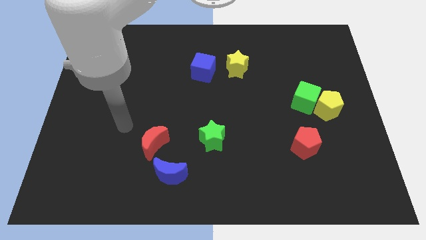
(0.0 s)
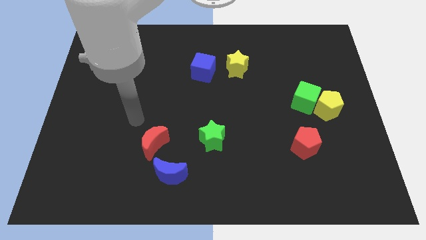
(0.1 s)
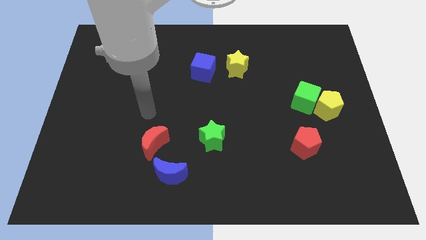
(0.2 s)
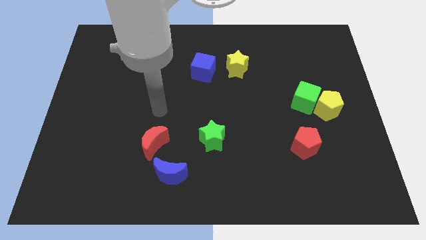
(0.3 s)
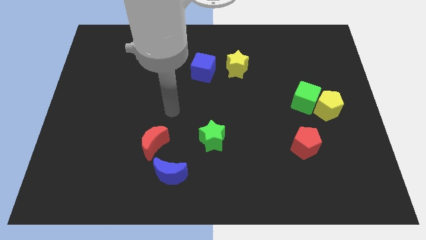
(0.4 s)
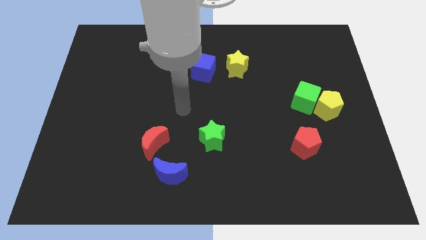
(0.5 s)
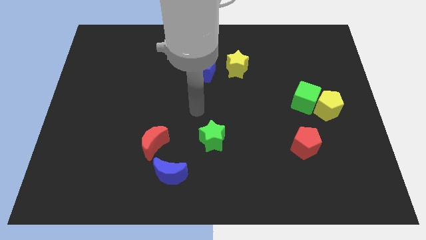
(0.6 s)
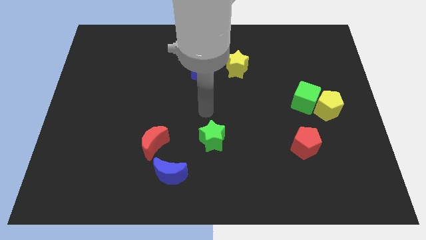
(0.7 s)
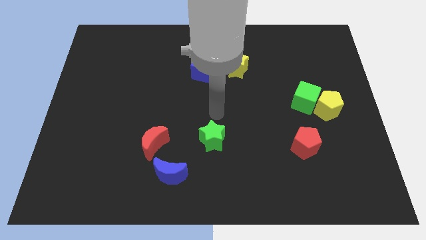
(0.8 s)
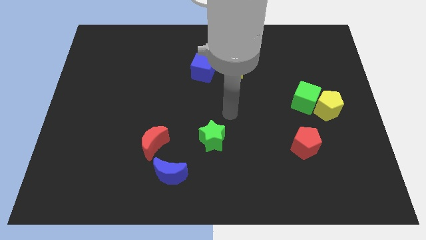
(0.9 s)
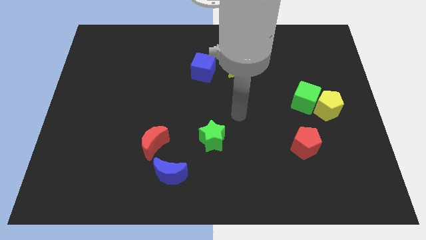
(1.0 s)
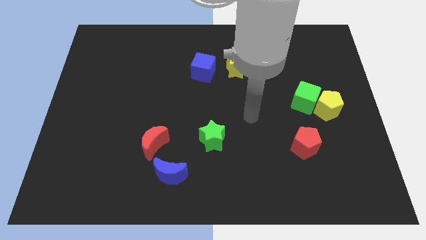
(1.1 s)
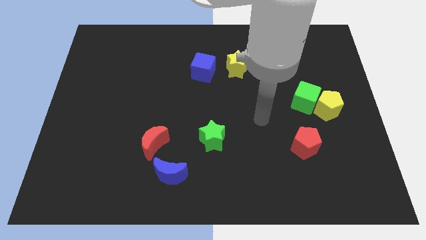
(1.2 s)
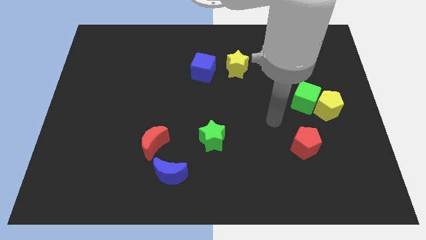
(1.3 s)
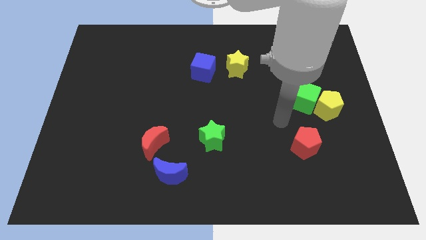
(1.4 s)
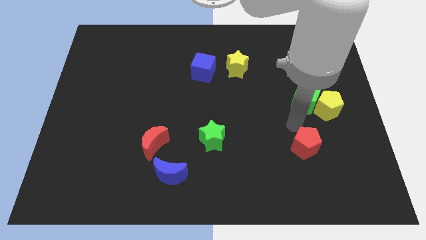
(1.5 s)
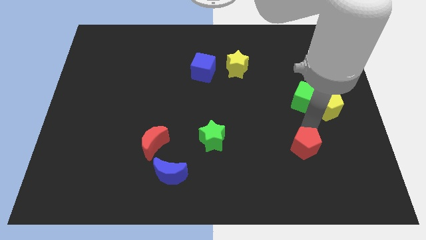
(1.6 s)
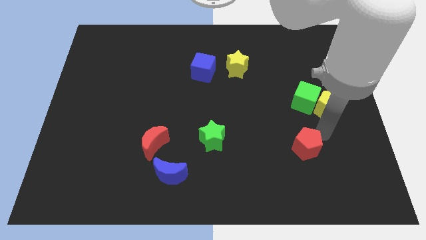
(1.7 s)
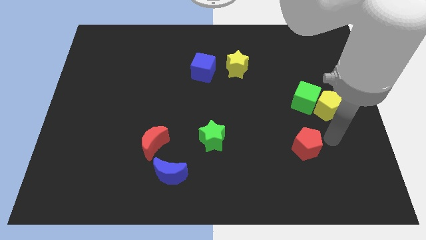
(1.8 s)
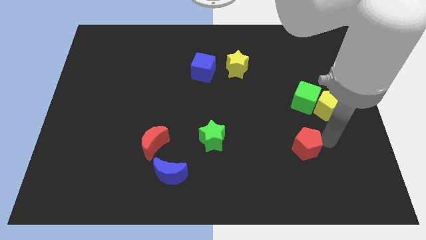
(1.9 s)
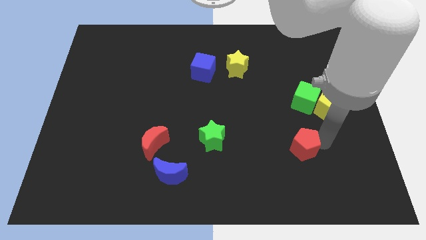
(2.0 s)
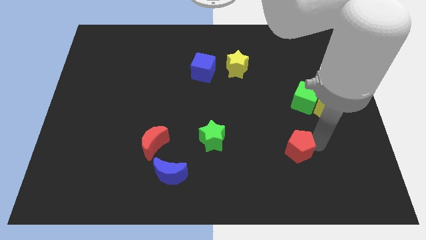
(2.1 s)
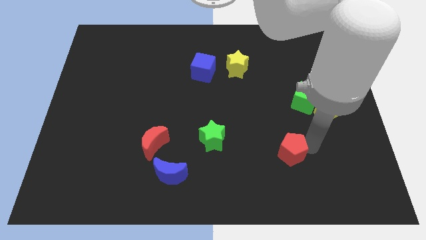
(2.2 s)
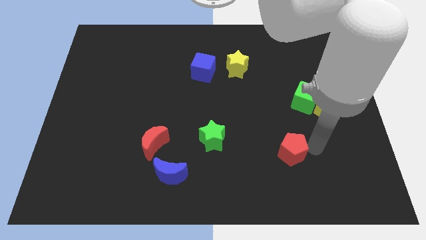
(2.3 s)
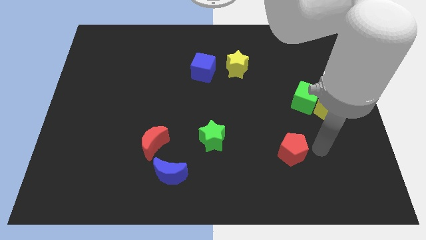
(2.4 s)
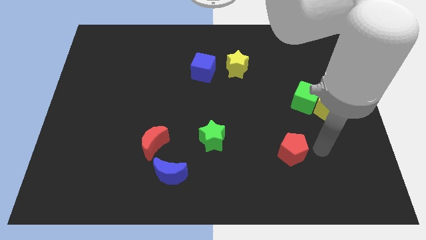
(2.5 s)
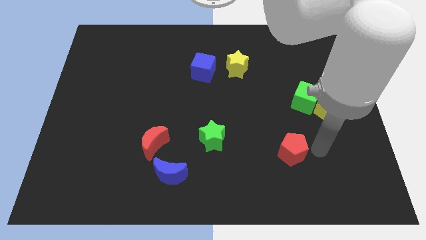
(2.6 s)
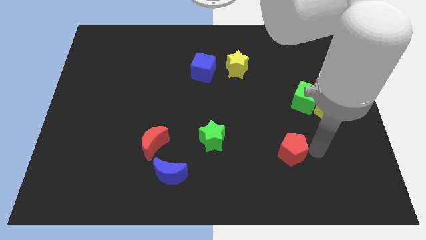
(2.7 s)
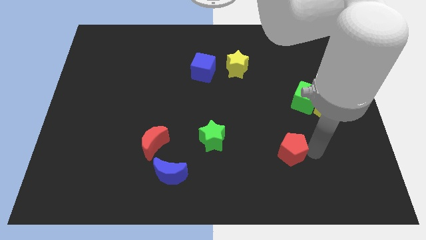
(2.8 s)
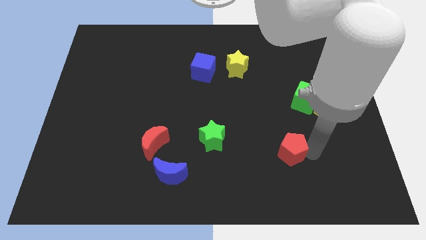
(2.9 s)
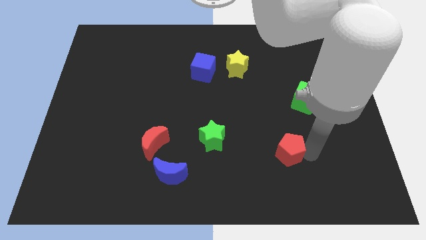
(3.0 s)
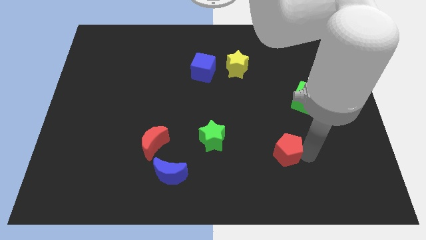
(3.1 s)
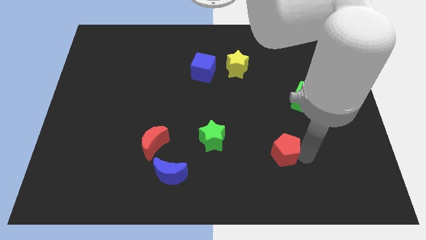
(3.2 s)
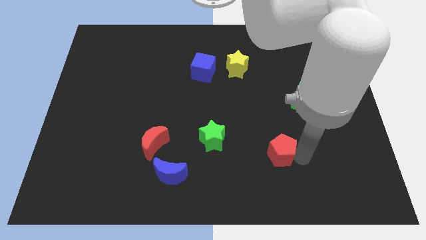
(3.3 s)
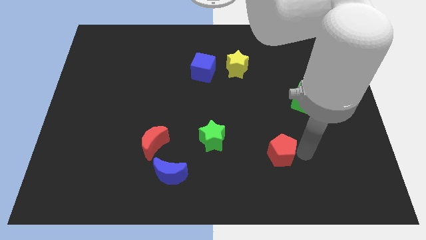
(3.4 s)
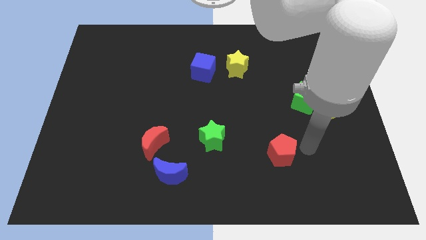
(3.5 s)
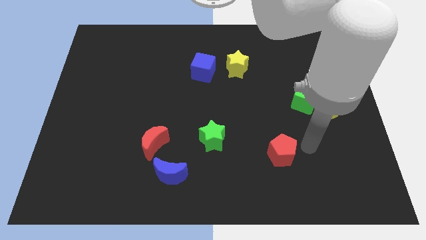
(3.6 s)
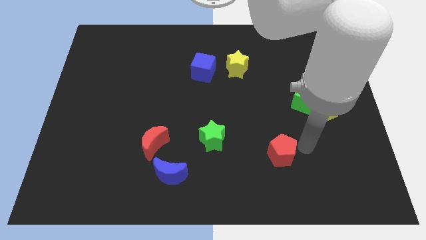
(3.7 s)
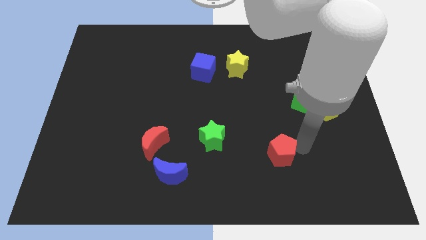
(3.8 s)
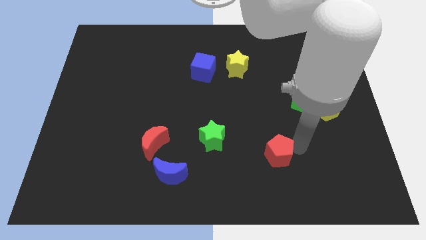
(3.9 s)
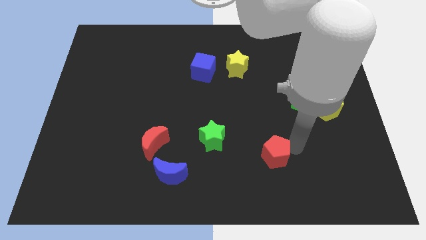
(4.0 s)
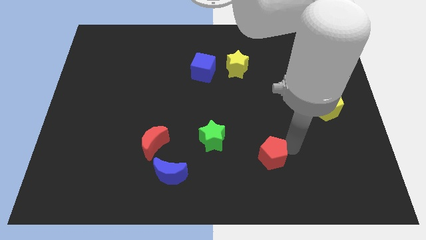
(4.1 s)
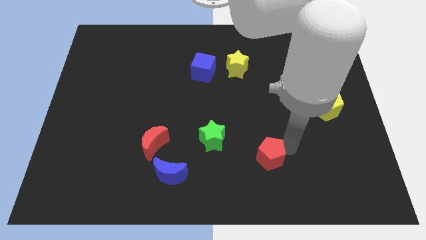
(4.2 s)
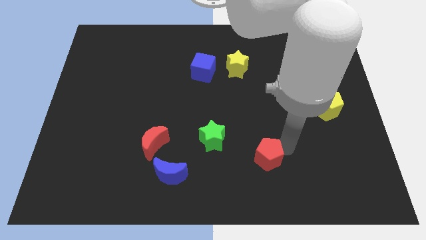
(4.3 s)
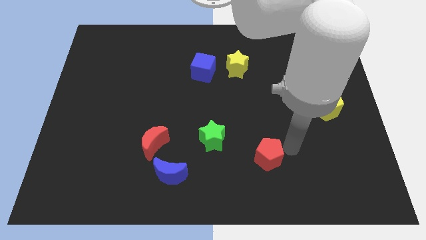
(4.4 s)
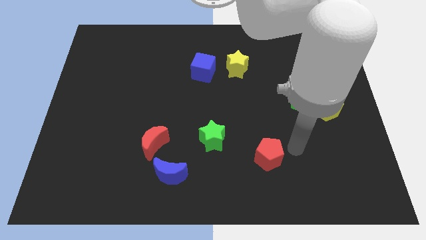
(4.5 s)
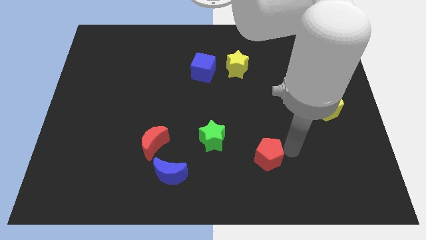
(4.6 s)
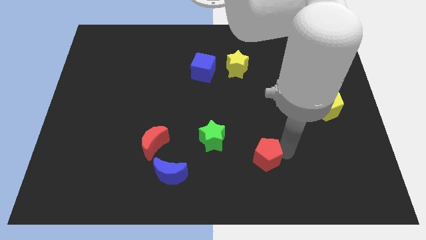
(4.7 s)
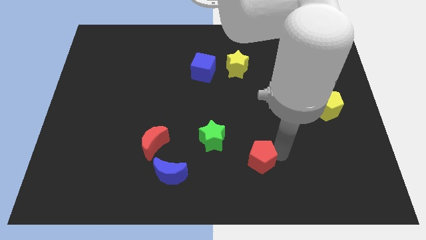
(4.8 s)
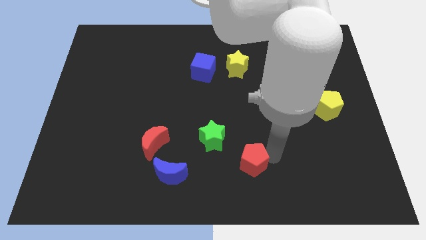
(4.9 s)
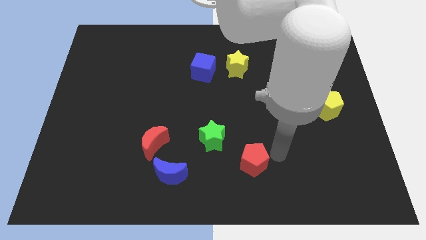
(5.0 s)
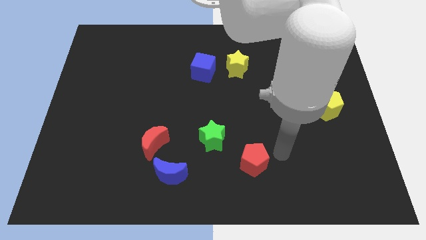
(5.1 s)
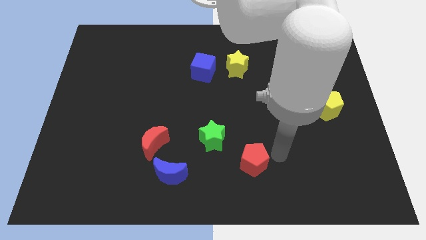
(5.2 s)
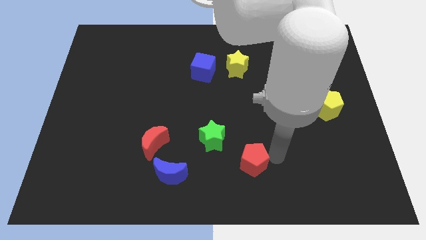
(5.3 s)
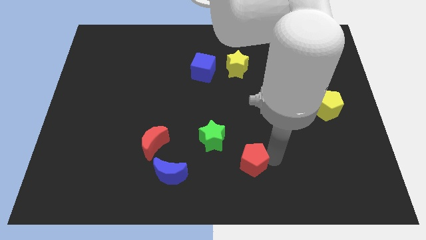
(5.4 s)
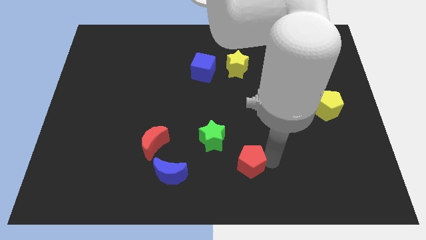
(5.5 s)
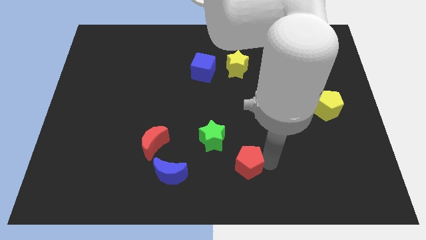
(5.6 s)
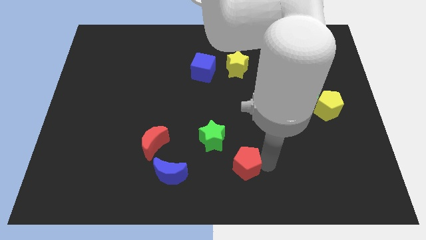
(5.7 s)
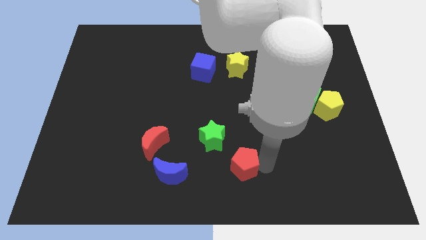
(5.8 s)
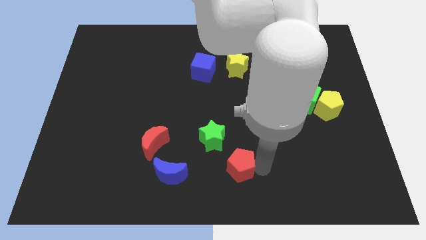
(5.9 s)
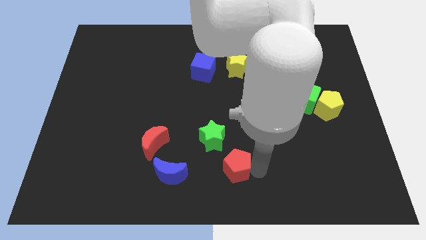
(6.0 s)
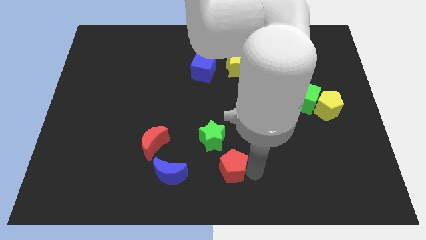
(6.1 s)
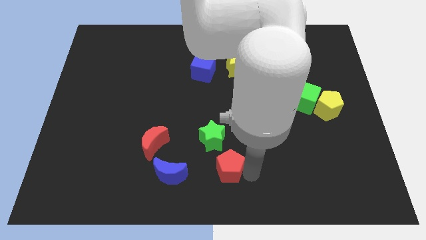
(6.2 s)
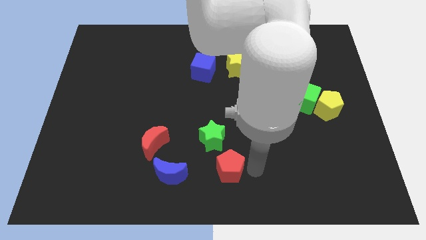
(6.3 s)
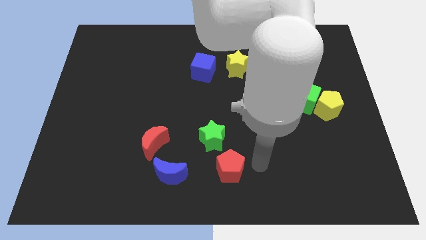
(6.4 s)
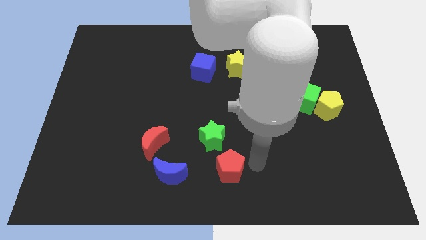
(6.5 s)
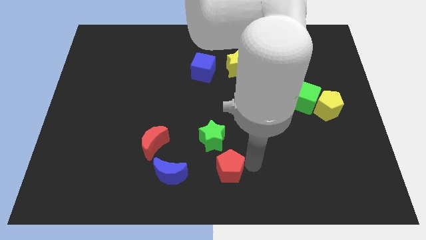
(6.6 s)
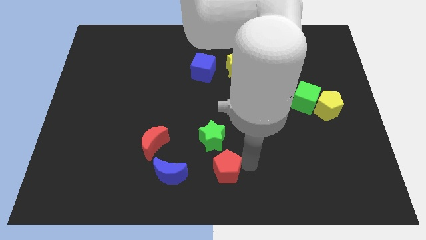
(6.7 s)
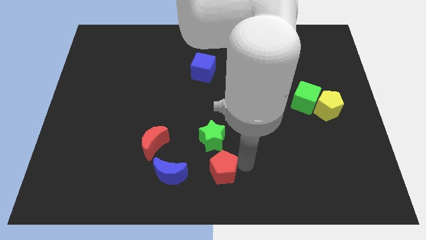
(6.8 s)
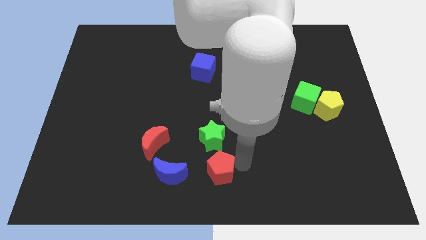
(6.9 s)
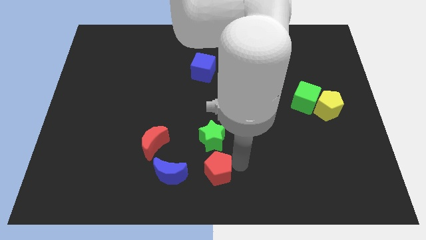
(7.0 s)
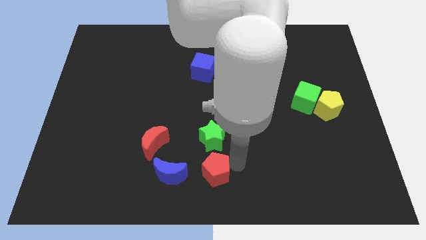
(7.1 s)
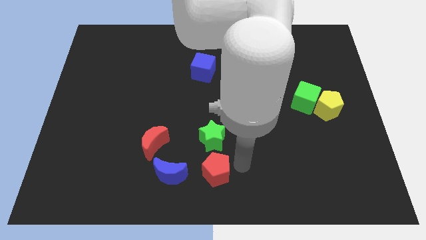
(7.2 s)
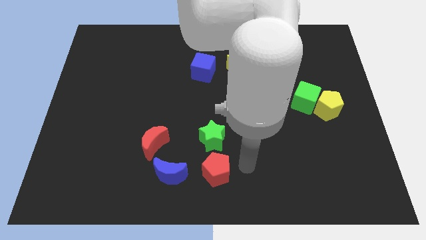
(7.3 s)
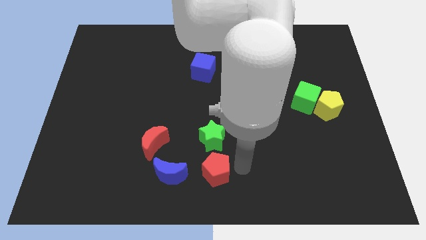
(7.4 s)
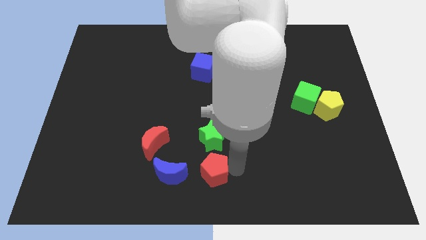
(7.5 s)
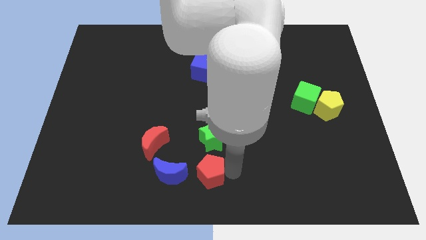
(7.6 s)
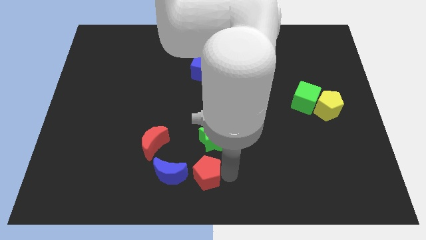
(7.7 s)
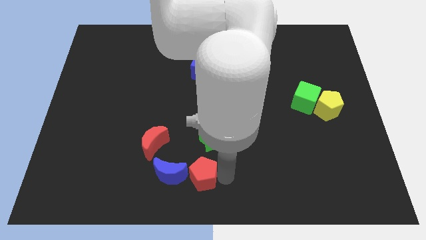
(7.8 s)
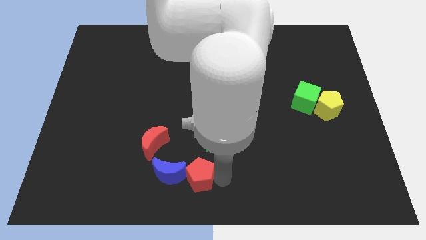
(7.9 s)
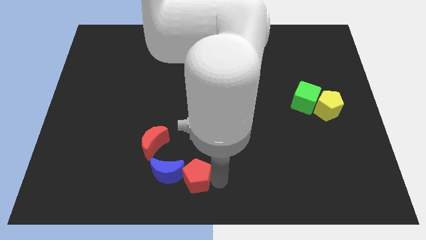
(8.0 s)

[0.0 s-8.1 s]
slide the red pentagon next to the blue moon
